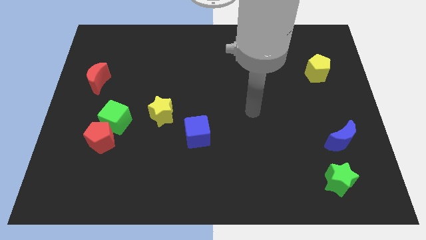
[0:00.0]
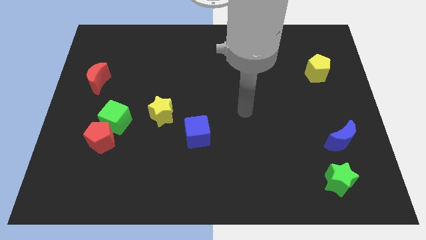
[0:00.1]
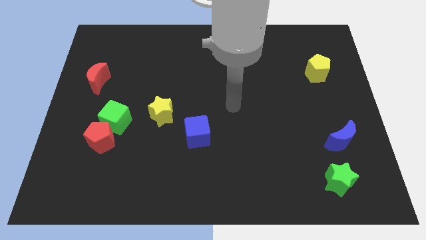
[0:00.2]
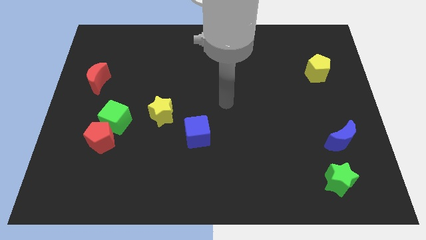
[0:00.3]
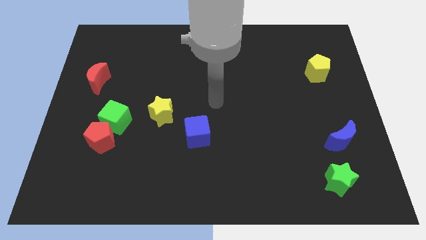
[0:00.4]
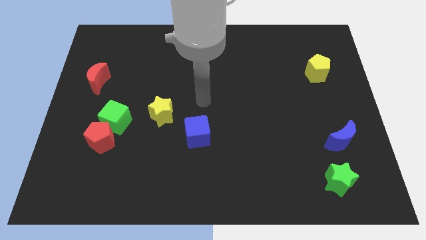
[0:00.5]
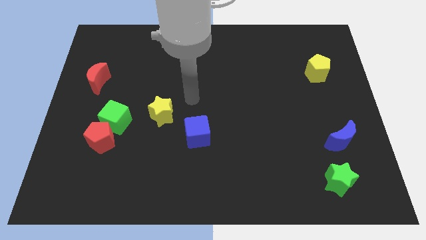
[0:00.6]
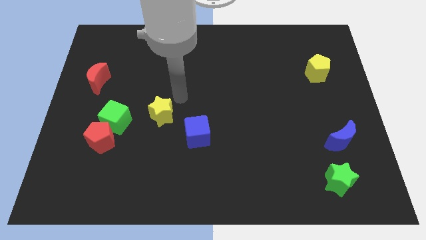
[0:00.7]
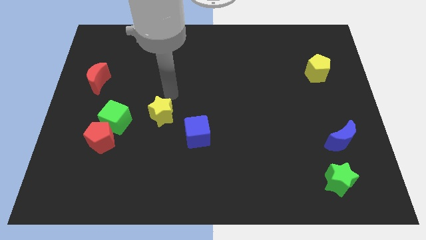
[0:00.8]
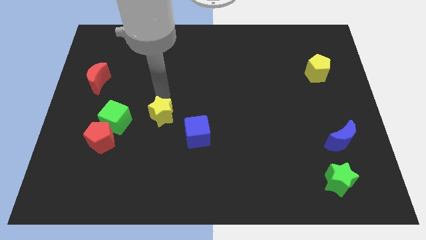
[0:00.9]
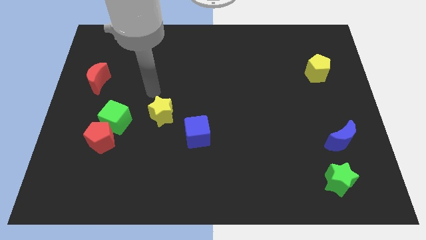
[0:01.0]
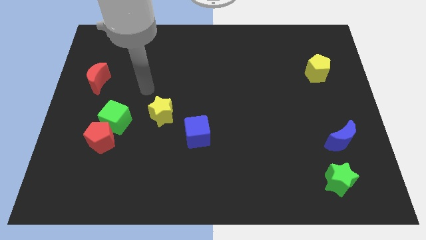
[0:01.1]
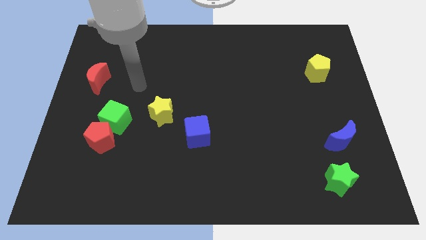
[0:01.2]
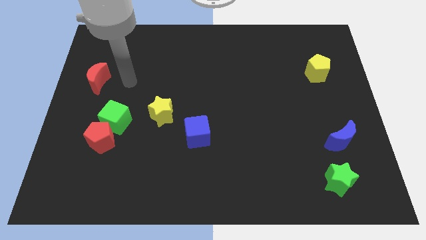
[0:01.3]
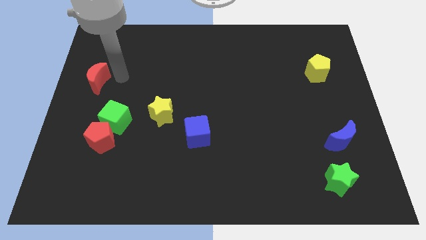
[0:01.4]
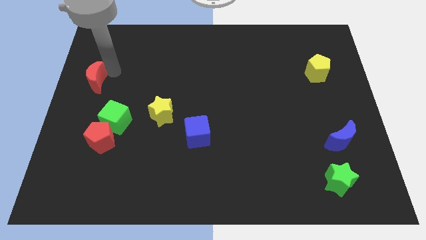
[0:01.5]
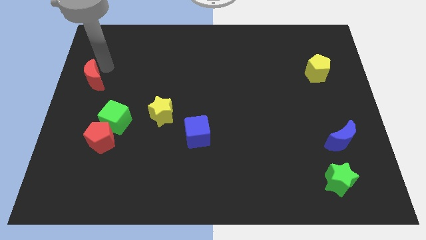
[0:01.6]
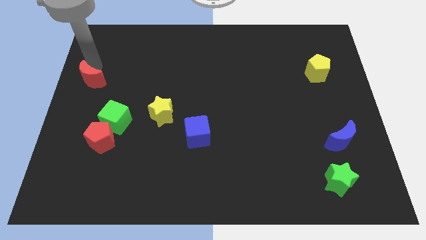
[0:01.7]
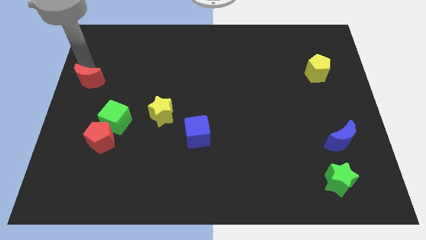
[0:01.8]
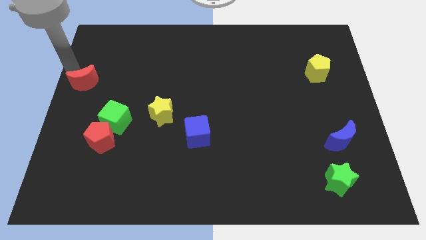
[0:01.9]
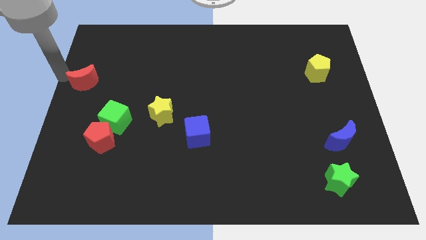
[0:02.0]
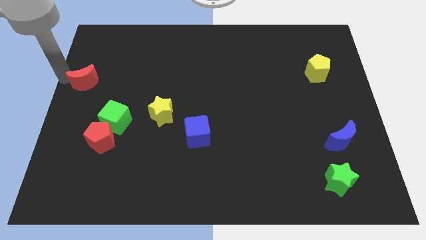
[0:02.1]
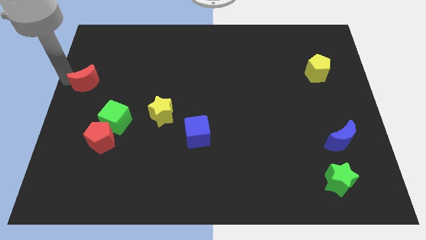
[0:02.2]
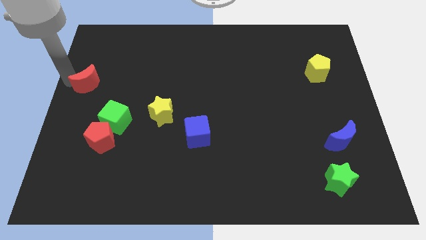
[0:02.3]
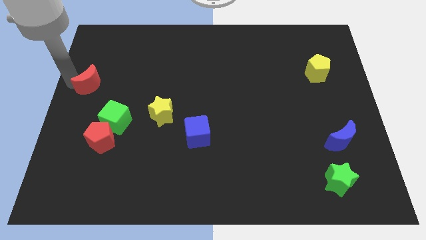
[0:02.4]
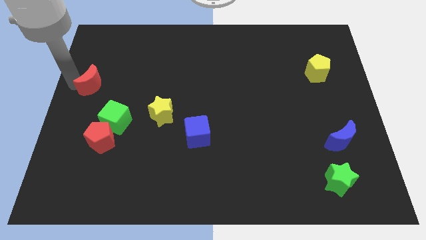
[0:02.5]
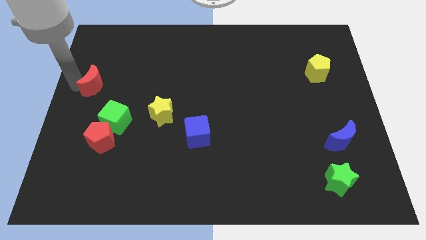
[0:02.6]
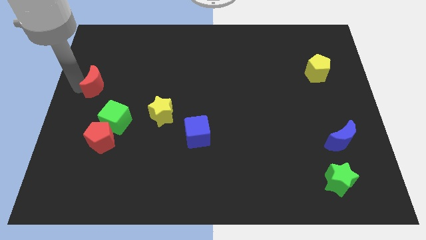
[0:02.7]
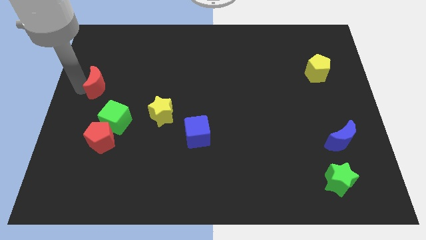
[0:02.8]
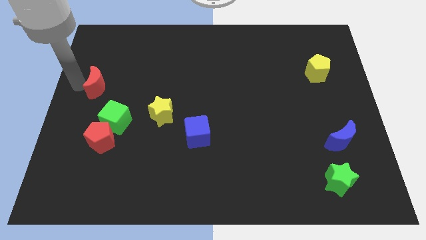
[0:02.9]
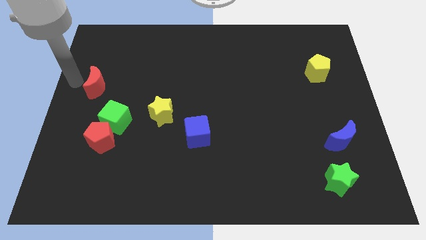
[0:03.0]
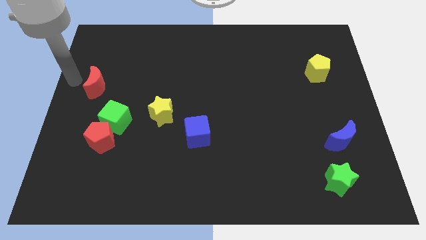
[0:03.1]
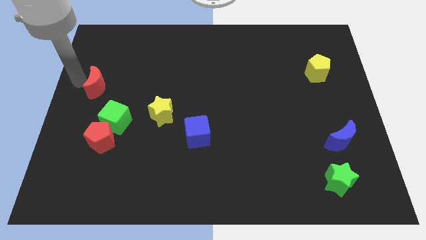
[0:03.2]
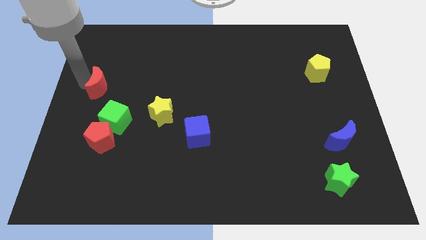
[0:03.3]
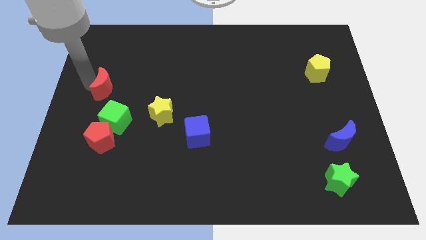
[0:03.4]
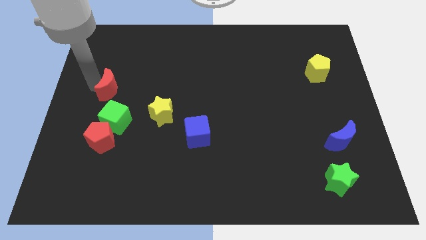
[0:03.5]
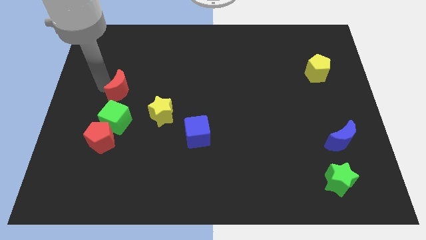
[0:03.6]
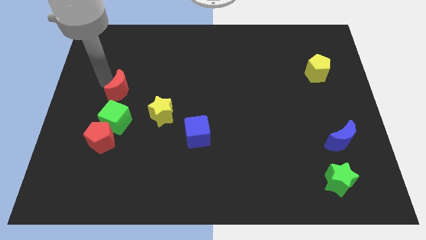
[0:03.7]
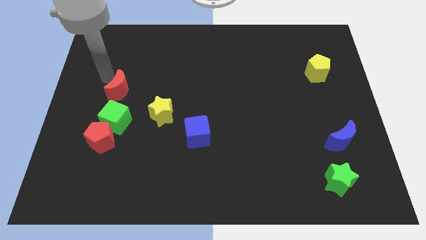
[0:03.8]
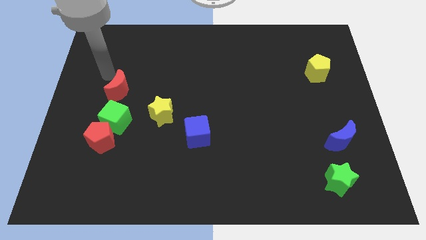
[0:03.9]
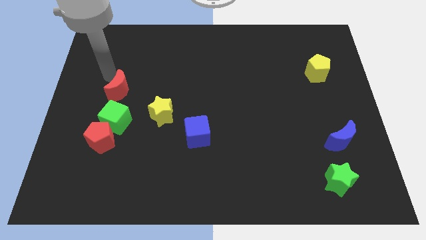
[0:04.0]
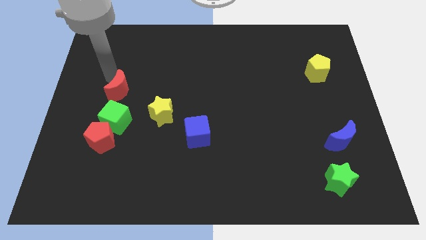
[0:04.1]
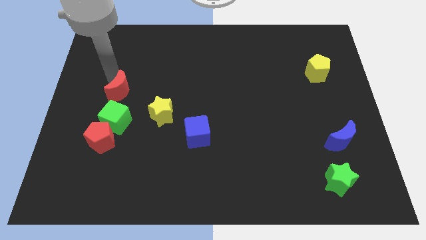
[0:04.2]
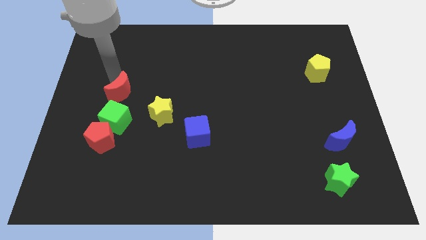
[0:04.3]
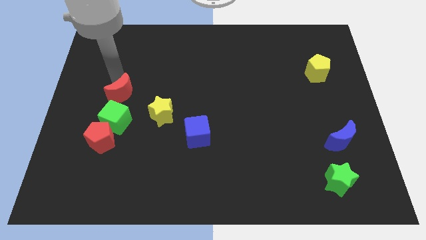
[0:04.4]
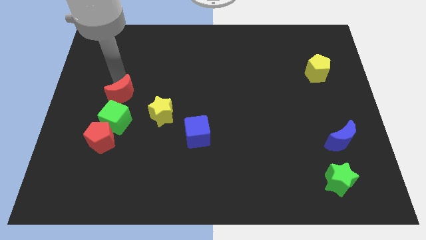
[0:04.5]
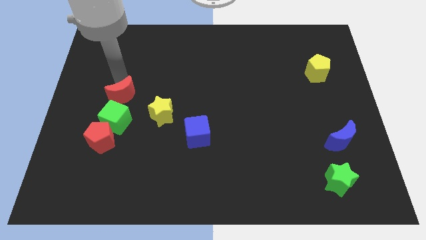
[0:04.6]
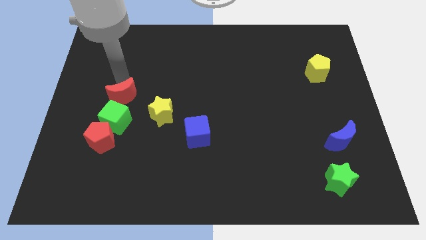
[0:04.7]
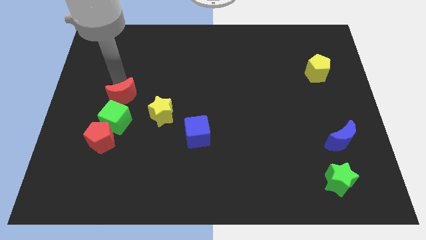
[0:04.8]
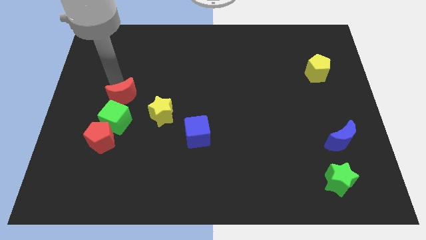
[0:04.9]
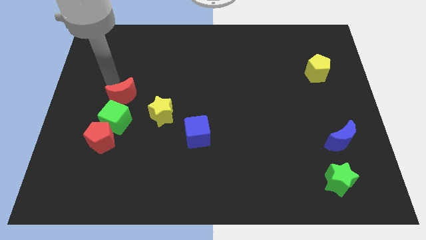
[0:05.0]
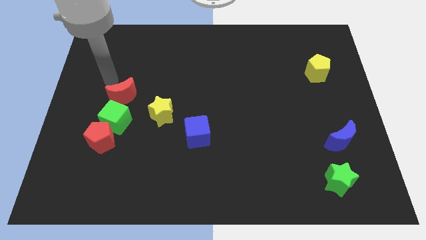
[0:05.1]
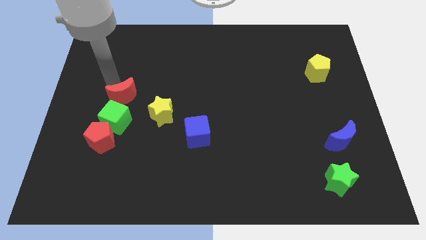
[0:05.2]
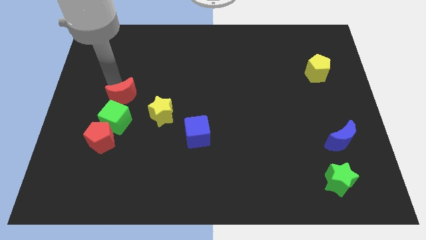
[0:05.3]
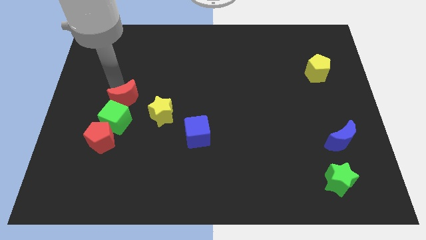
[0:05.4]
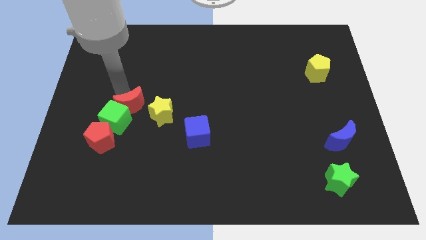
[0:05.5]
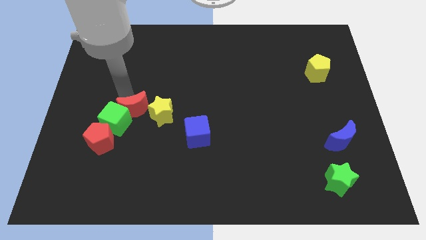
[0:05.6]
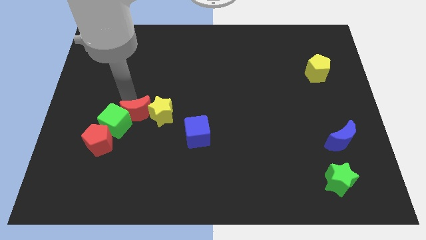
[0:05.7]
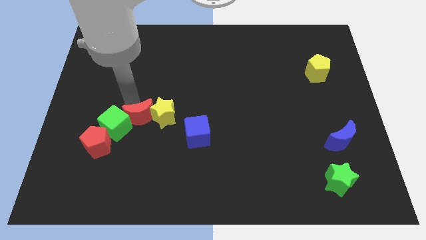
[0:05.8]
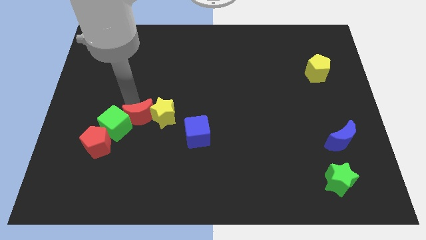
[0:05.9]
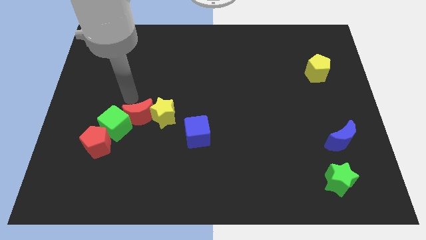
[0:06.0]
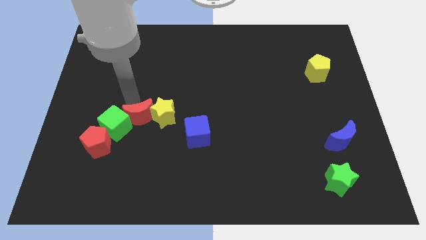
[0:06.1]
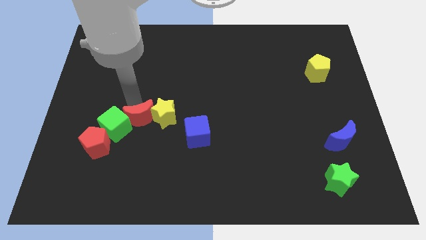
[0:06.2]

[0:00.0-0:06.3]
slide the red moon to the left of the blue cube

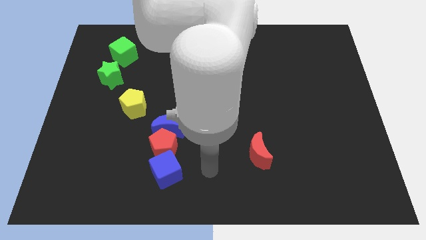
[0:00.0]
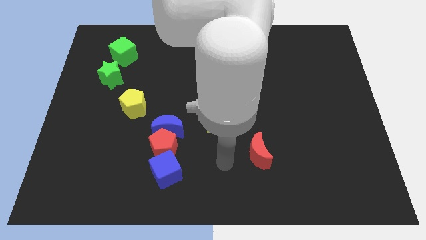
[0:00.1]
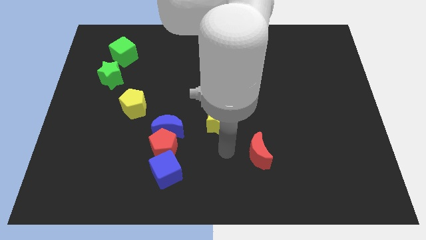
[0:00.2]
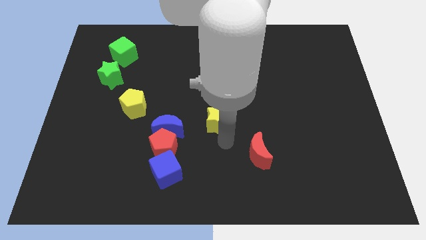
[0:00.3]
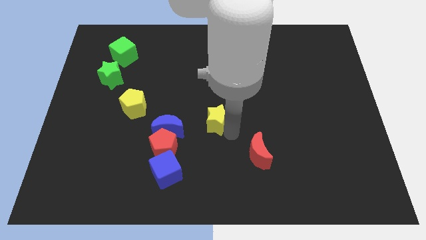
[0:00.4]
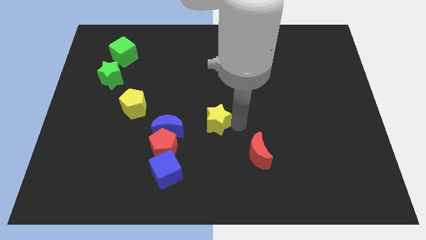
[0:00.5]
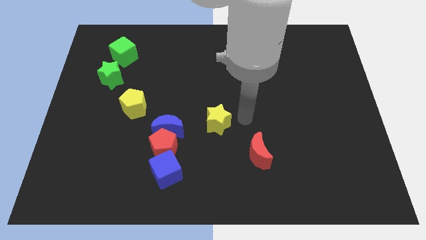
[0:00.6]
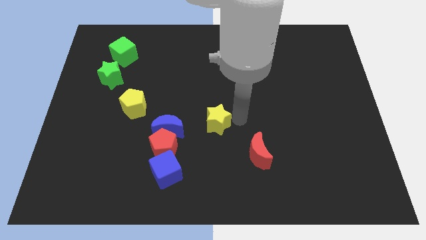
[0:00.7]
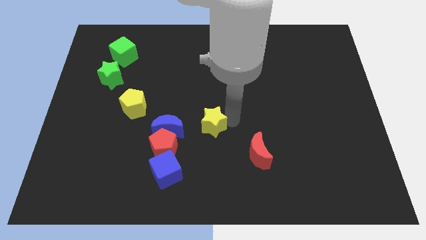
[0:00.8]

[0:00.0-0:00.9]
move the yellow star diagonally up and to the right of the red pentagon

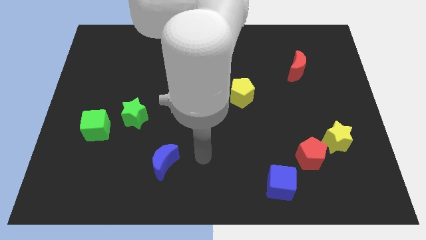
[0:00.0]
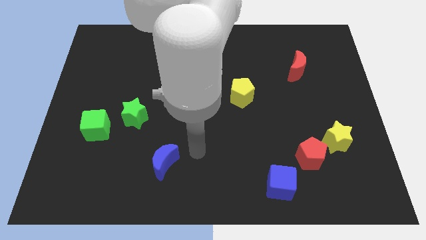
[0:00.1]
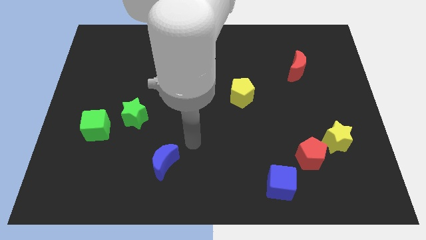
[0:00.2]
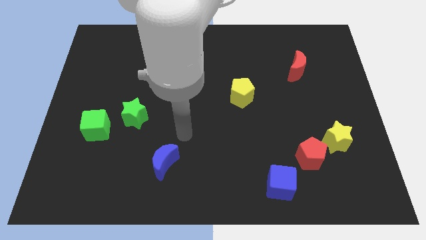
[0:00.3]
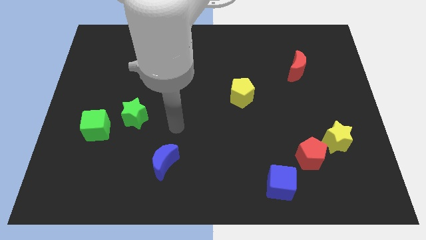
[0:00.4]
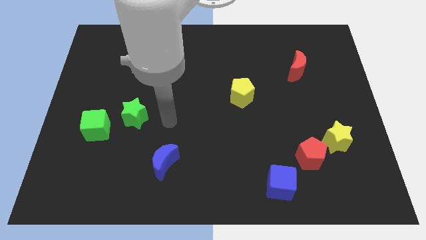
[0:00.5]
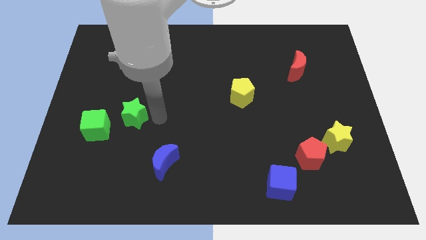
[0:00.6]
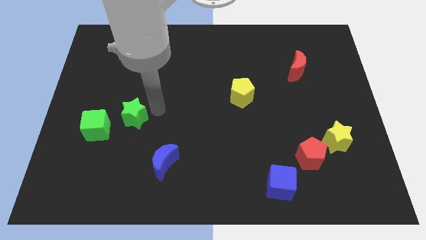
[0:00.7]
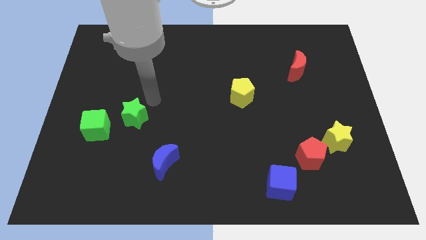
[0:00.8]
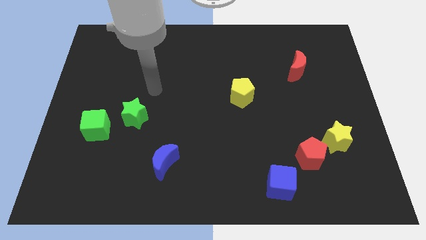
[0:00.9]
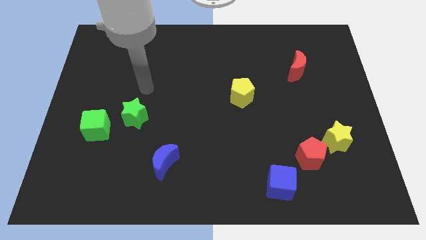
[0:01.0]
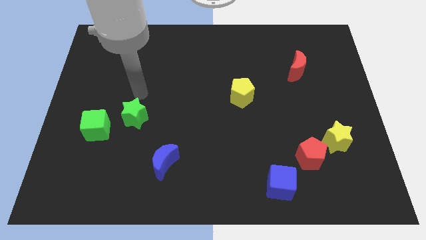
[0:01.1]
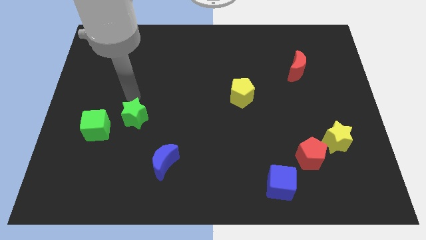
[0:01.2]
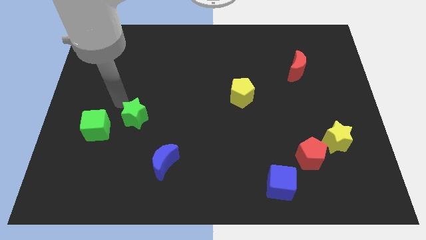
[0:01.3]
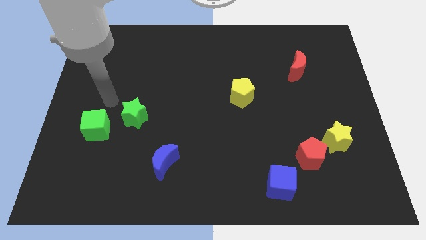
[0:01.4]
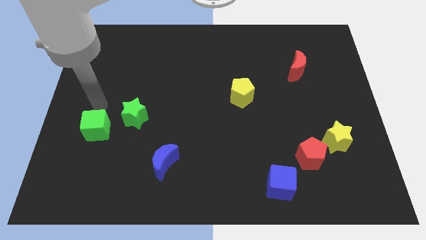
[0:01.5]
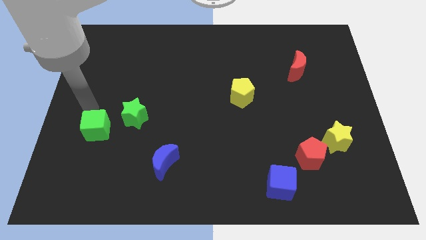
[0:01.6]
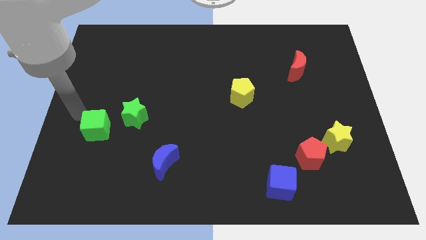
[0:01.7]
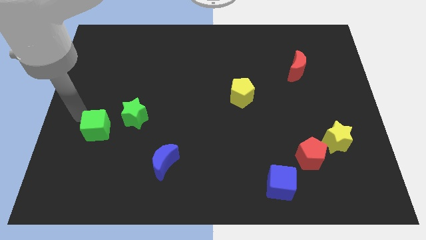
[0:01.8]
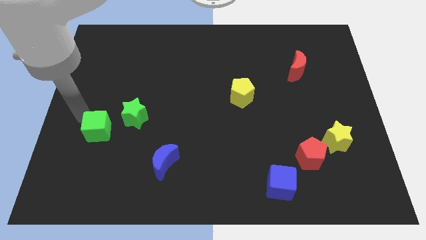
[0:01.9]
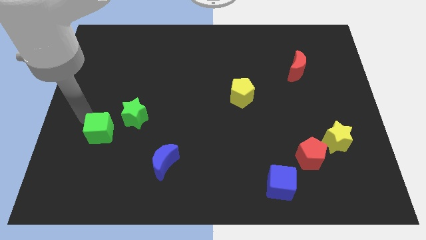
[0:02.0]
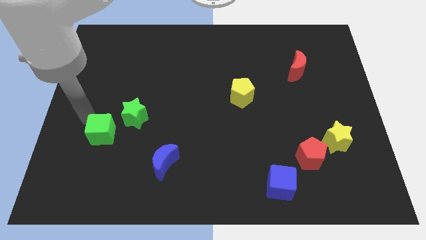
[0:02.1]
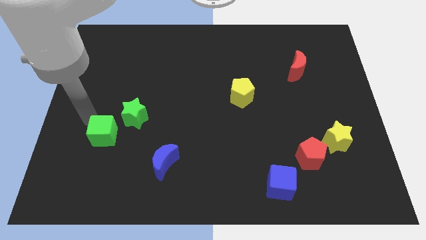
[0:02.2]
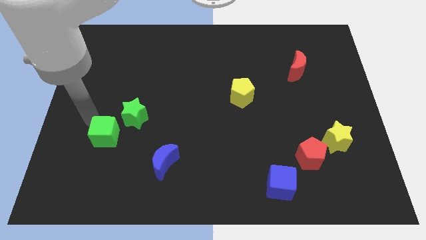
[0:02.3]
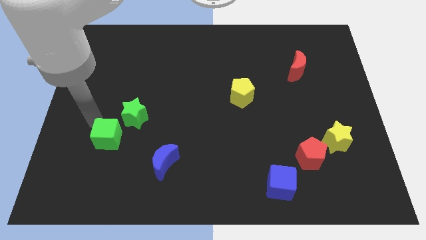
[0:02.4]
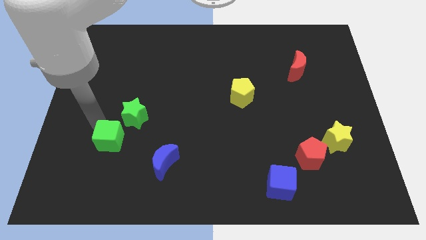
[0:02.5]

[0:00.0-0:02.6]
push the green cube below the green star
